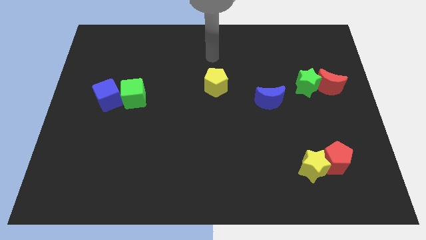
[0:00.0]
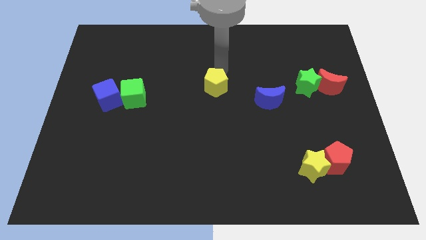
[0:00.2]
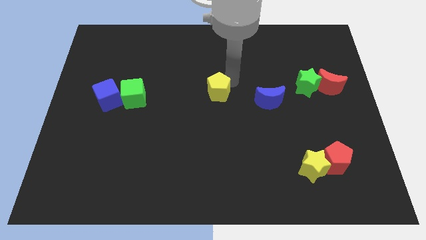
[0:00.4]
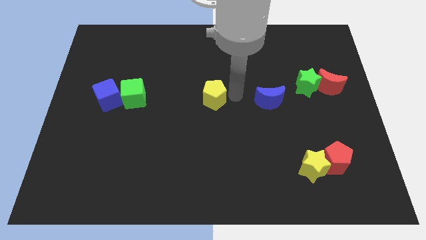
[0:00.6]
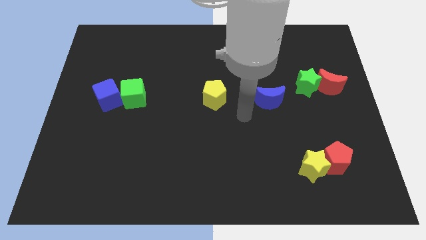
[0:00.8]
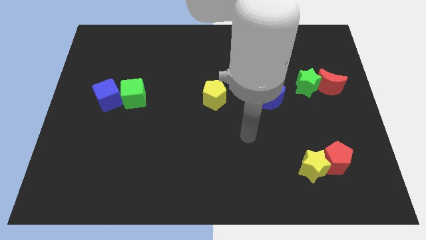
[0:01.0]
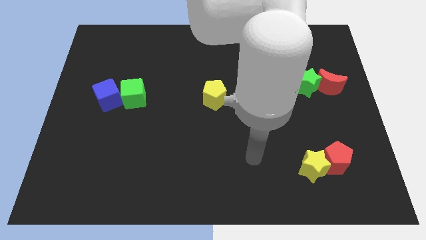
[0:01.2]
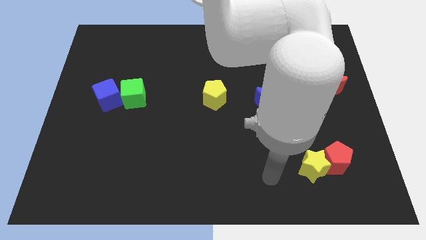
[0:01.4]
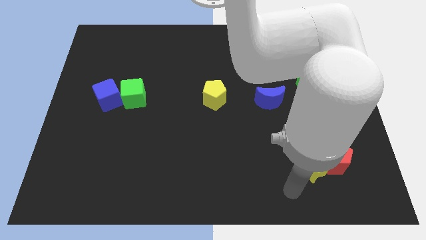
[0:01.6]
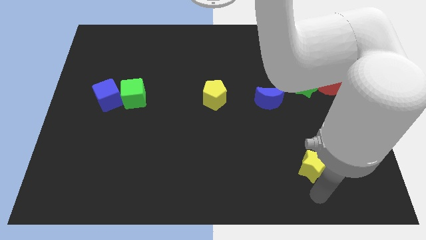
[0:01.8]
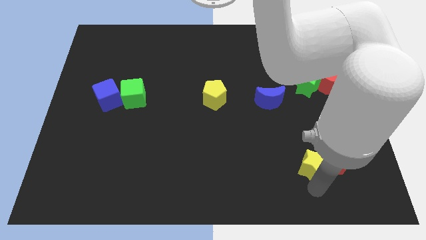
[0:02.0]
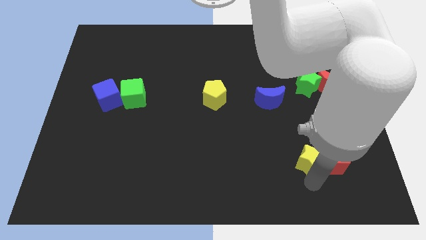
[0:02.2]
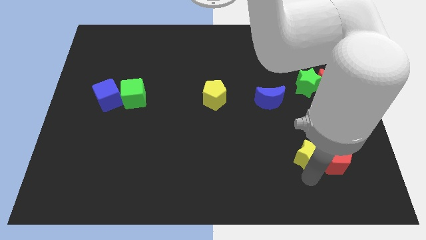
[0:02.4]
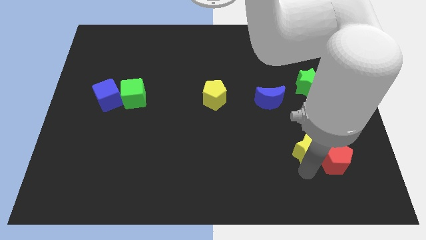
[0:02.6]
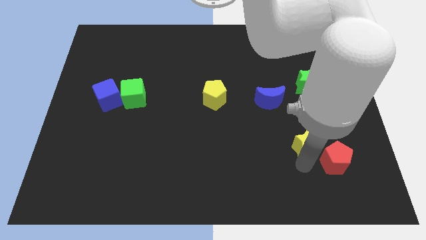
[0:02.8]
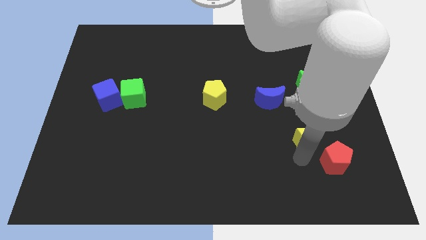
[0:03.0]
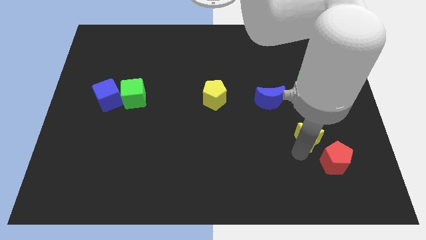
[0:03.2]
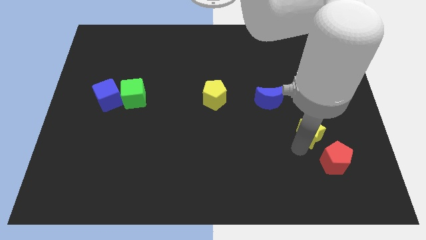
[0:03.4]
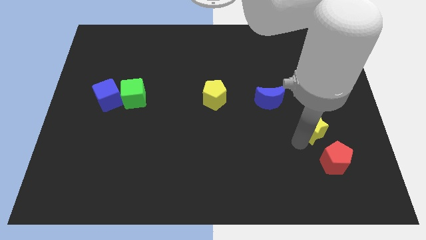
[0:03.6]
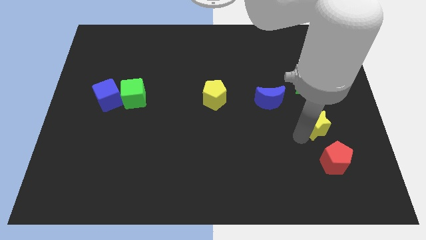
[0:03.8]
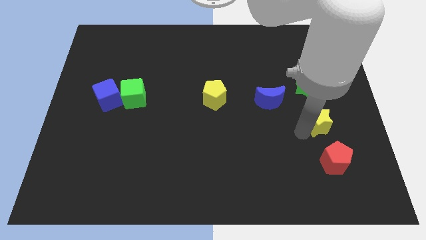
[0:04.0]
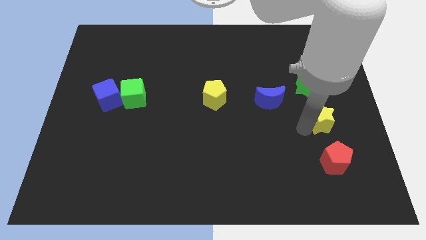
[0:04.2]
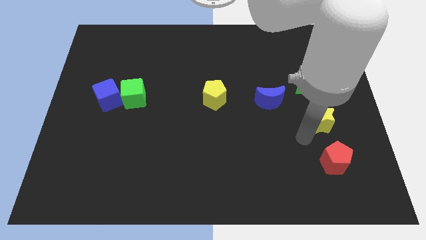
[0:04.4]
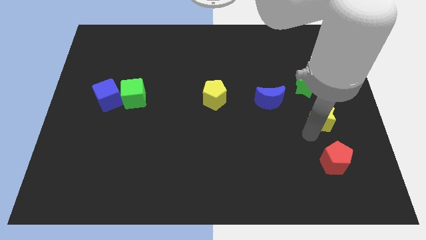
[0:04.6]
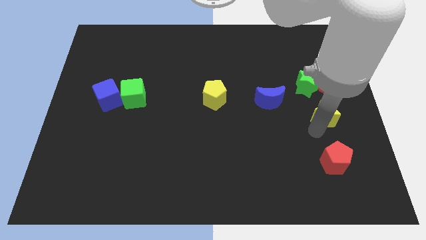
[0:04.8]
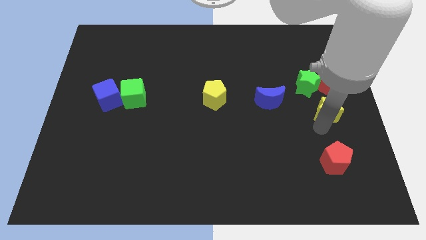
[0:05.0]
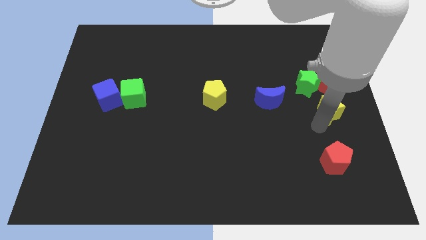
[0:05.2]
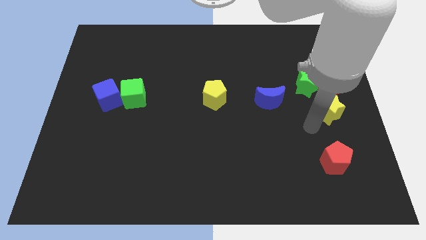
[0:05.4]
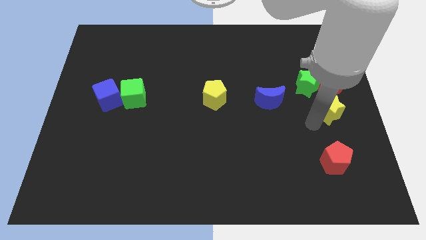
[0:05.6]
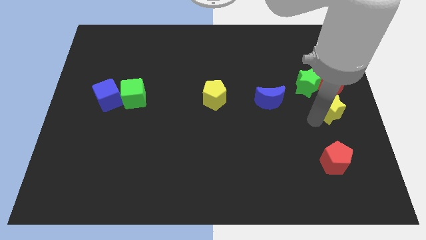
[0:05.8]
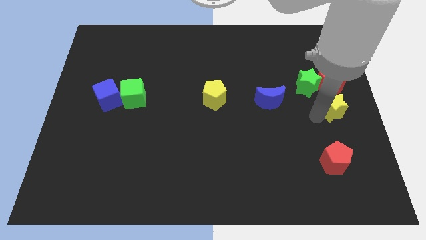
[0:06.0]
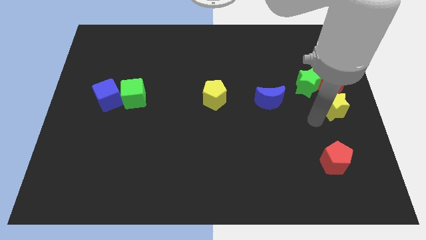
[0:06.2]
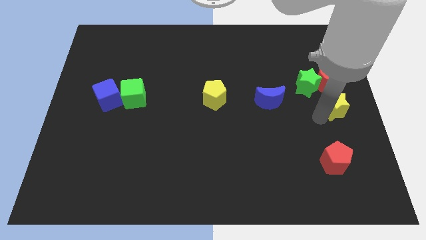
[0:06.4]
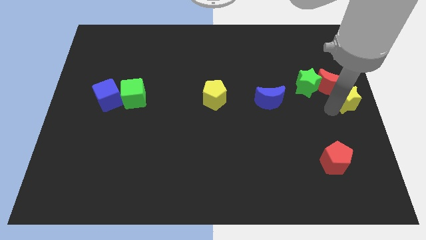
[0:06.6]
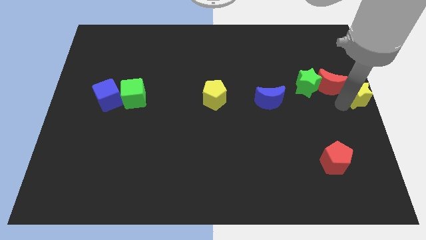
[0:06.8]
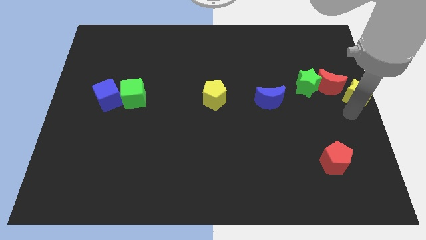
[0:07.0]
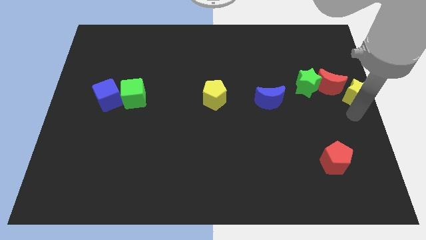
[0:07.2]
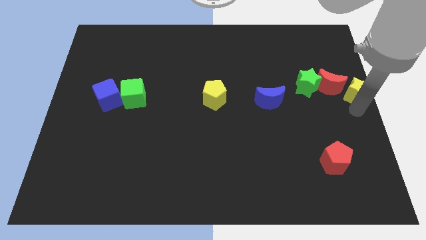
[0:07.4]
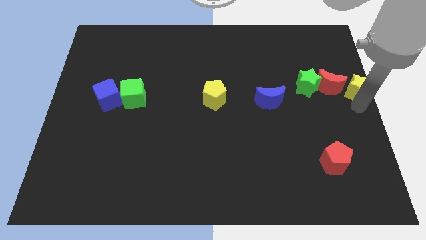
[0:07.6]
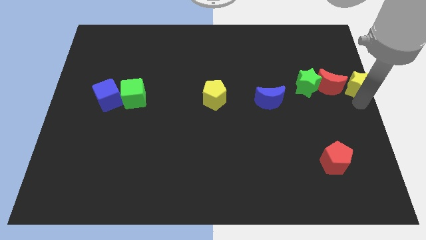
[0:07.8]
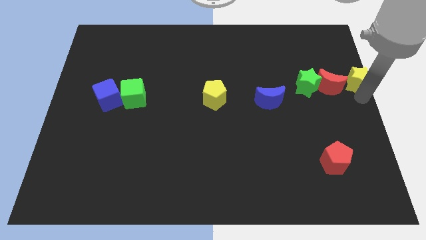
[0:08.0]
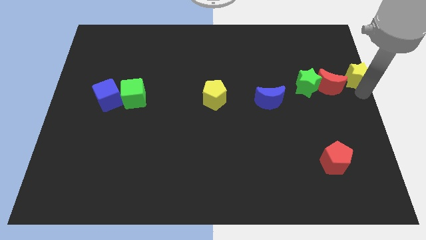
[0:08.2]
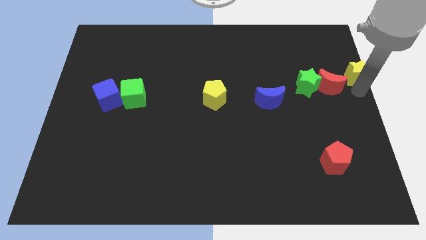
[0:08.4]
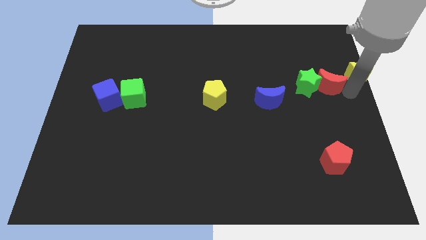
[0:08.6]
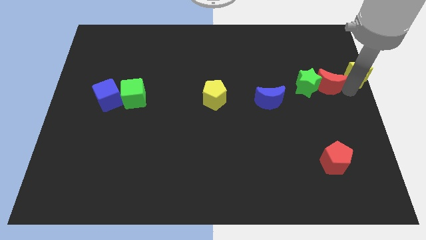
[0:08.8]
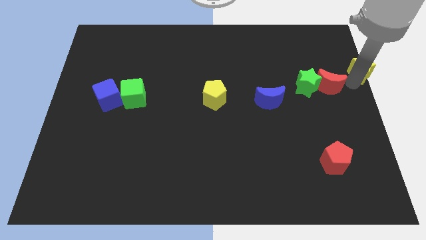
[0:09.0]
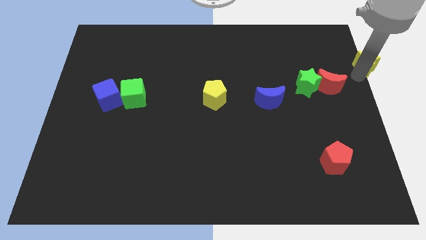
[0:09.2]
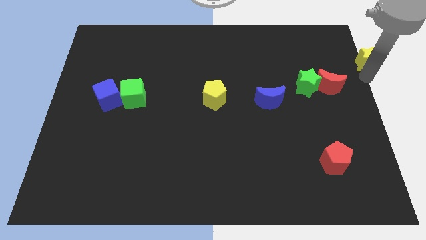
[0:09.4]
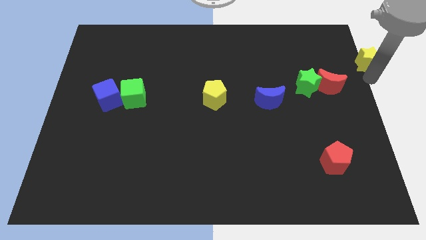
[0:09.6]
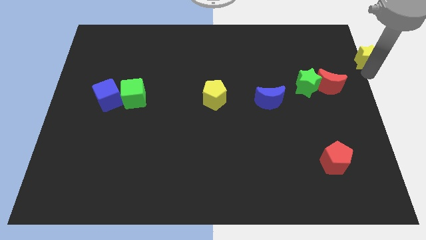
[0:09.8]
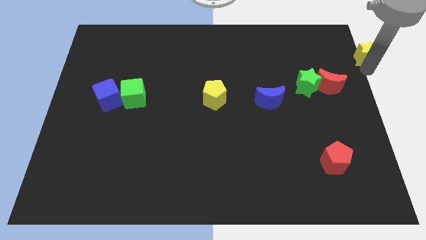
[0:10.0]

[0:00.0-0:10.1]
put the yellow star to the top right

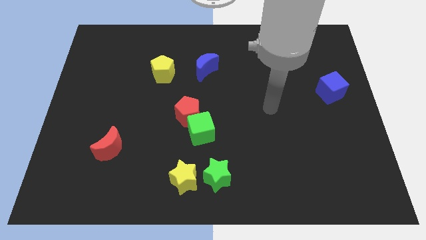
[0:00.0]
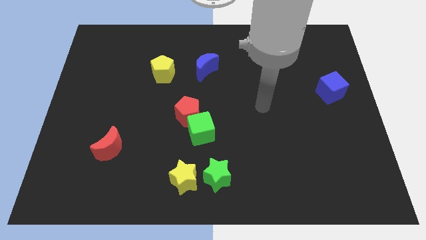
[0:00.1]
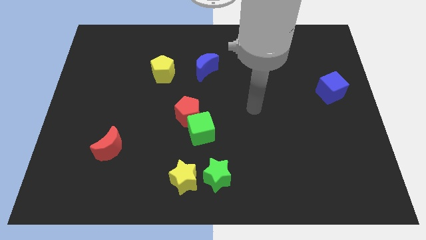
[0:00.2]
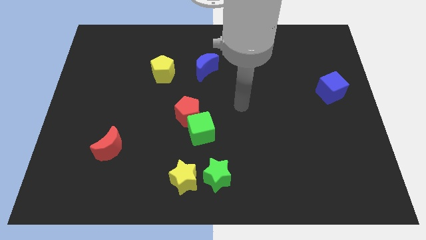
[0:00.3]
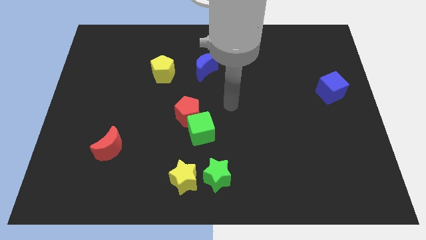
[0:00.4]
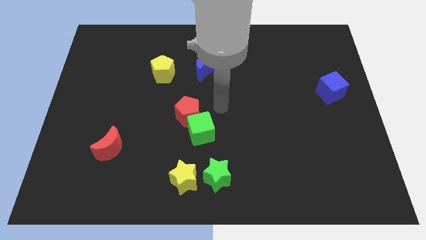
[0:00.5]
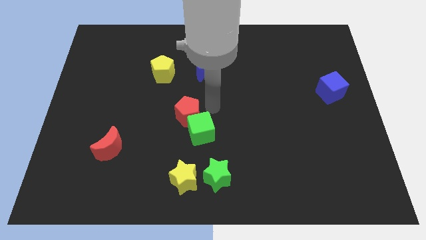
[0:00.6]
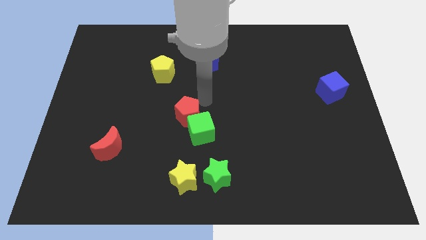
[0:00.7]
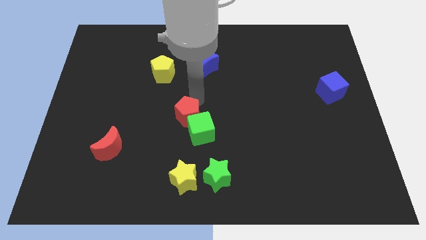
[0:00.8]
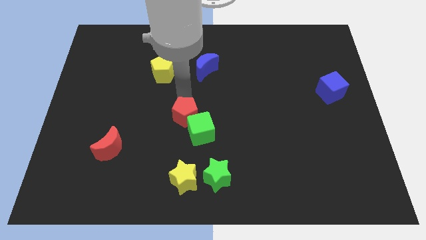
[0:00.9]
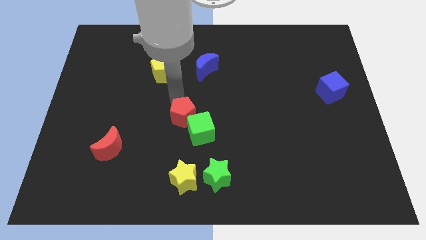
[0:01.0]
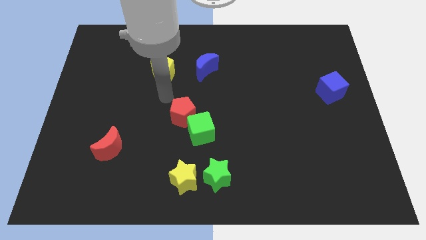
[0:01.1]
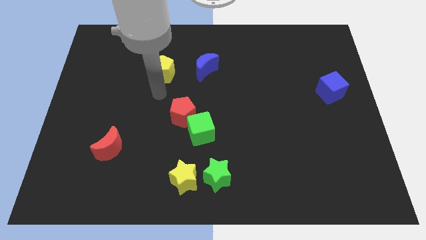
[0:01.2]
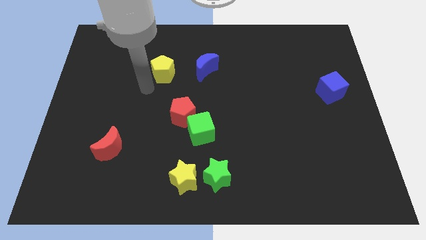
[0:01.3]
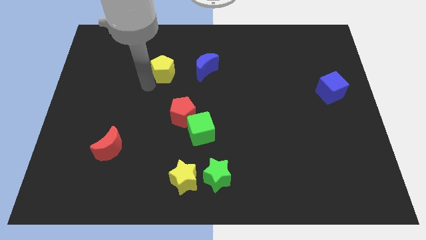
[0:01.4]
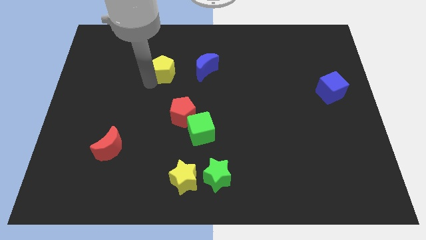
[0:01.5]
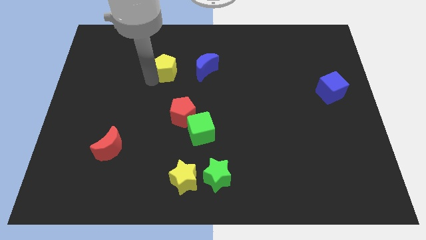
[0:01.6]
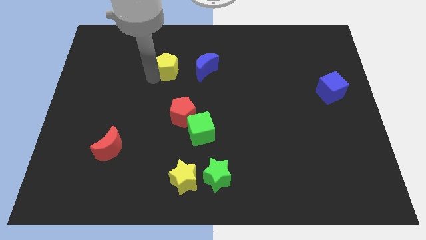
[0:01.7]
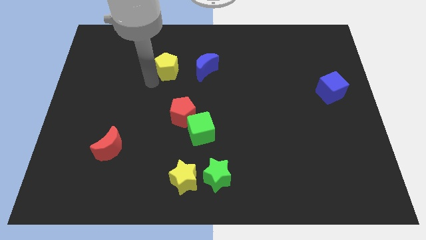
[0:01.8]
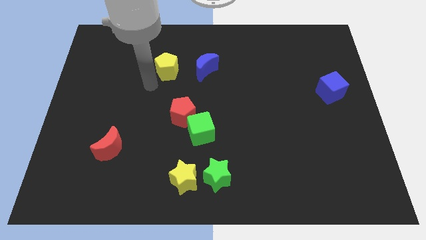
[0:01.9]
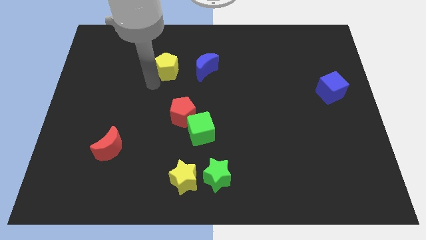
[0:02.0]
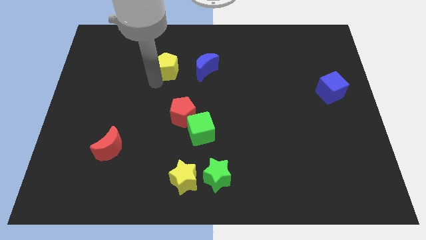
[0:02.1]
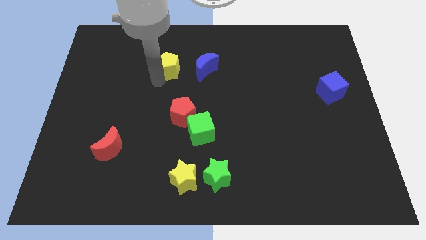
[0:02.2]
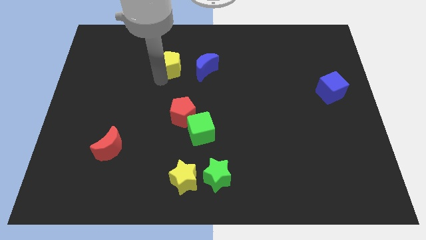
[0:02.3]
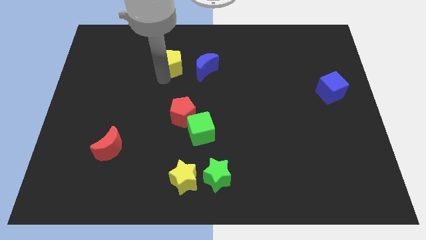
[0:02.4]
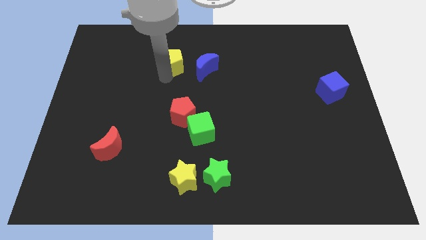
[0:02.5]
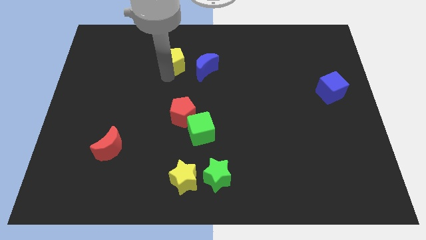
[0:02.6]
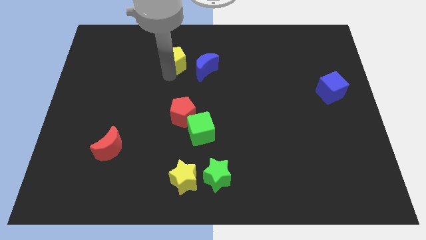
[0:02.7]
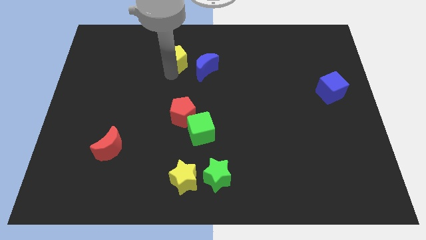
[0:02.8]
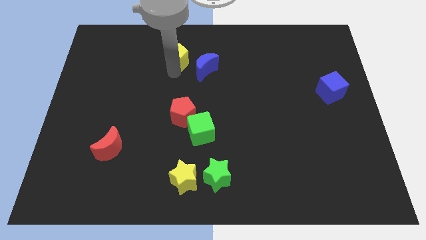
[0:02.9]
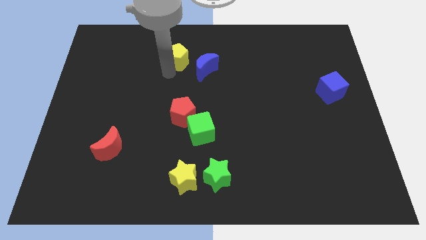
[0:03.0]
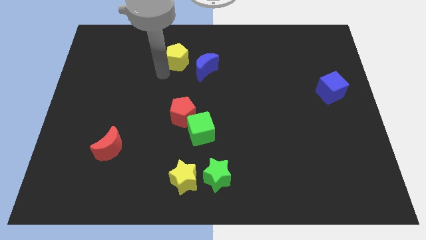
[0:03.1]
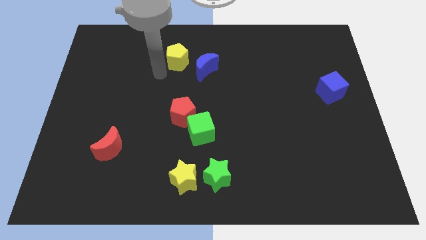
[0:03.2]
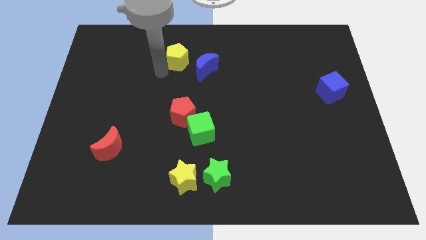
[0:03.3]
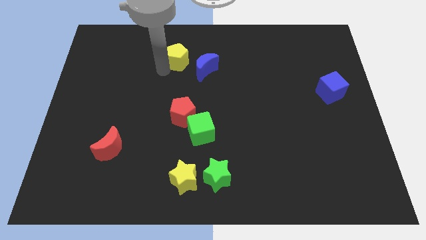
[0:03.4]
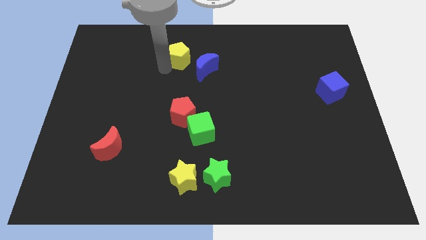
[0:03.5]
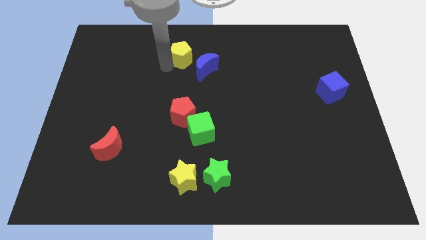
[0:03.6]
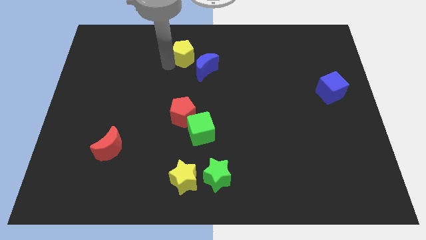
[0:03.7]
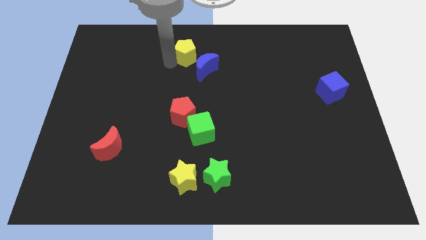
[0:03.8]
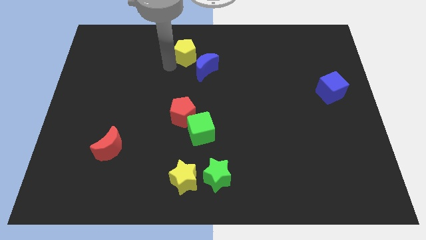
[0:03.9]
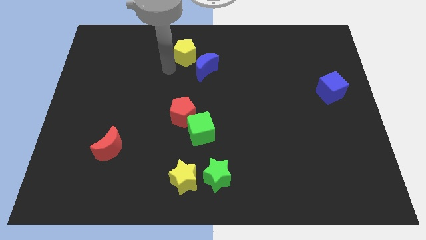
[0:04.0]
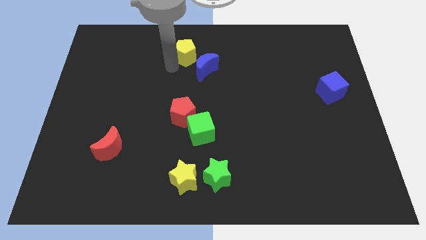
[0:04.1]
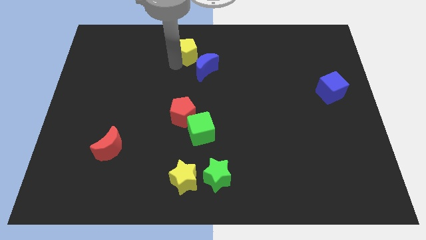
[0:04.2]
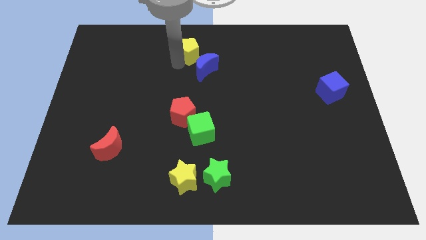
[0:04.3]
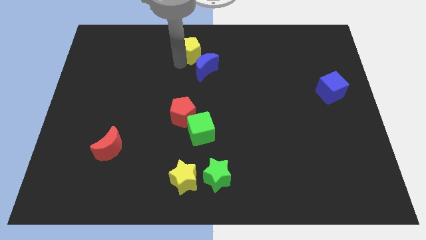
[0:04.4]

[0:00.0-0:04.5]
push the yellow pentagon to the top
